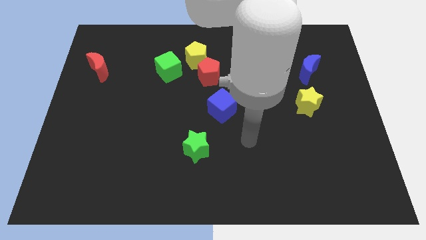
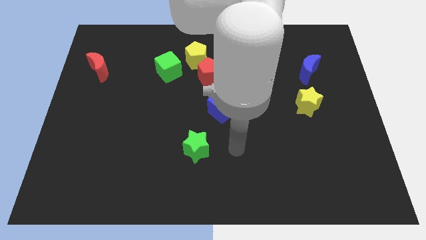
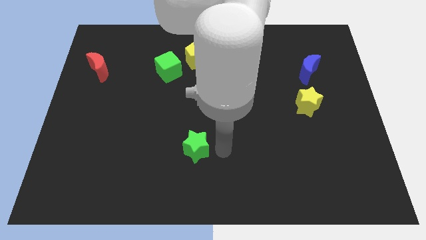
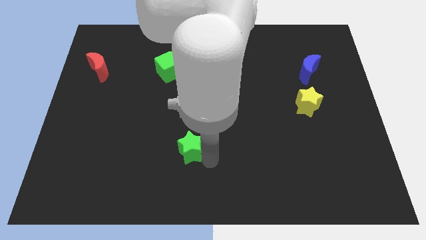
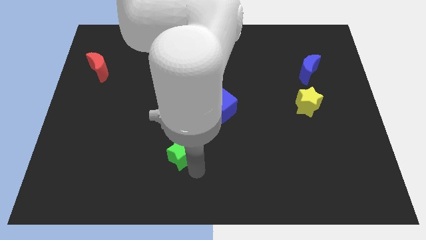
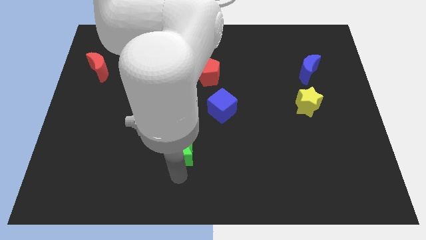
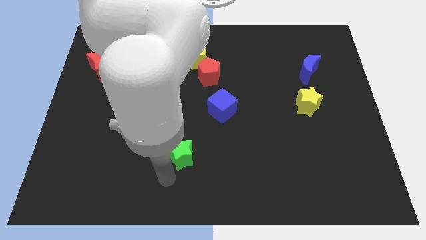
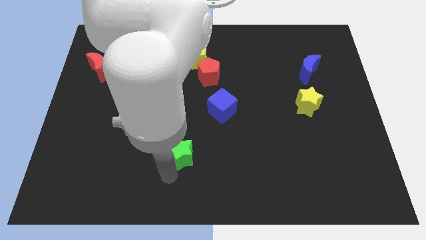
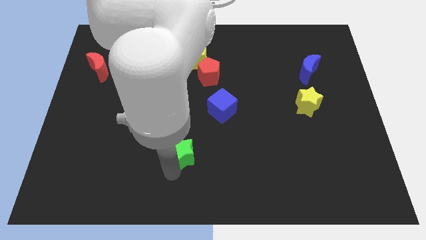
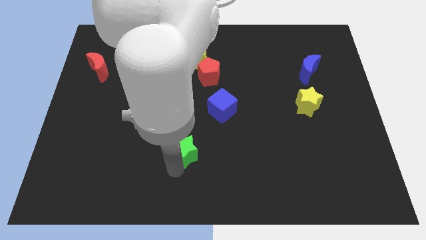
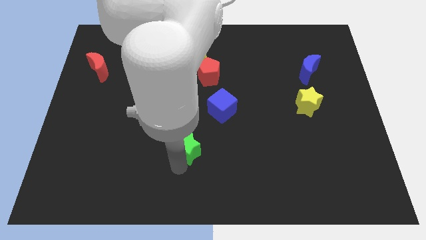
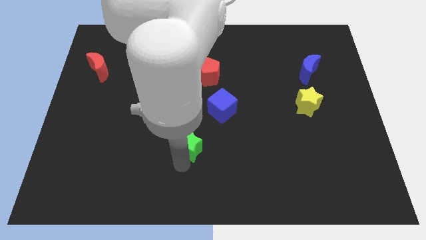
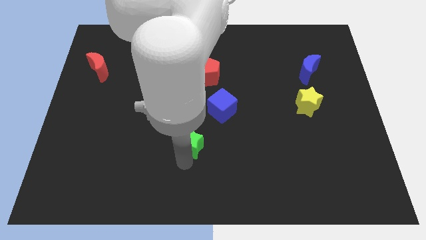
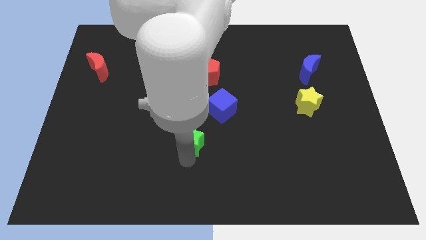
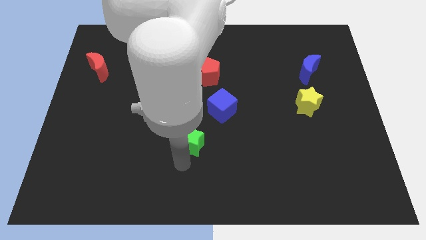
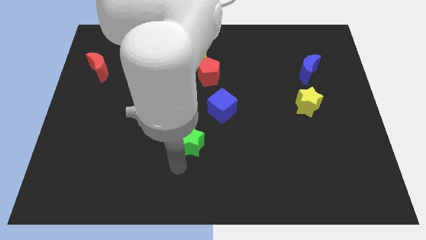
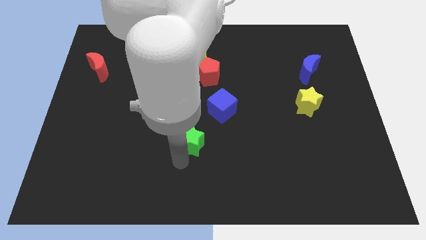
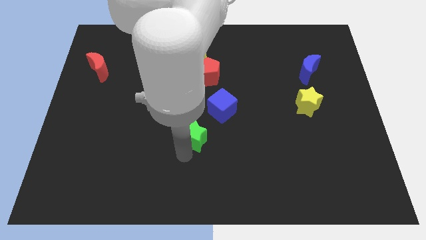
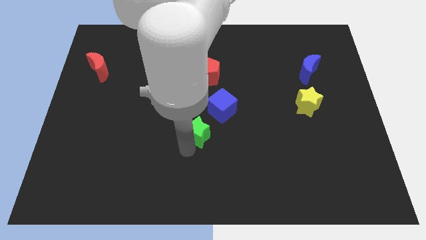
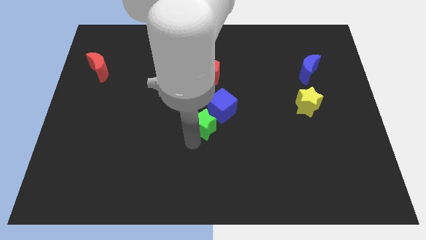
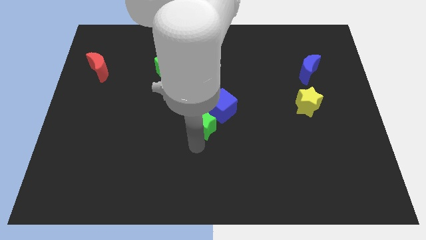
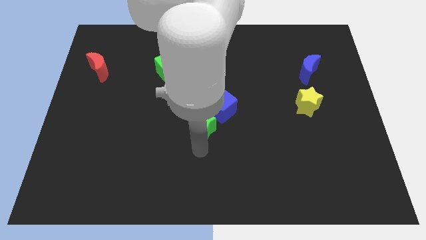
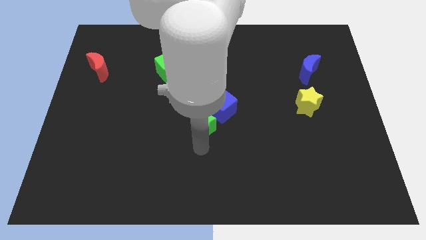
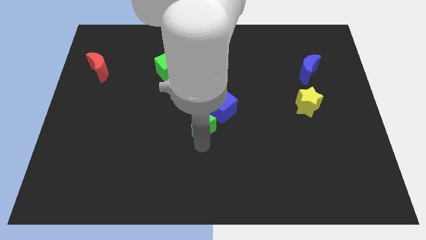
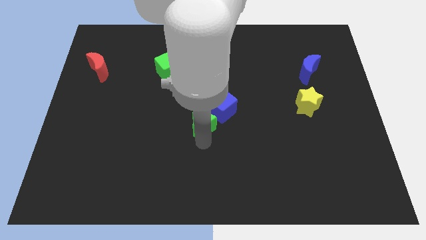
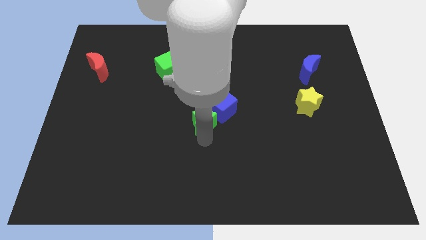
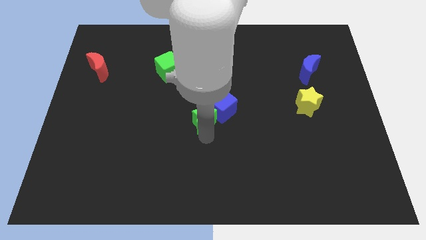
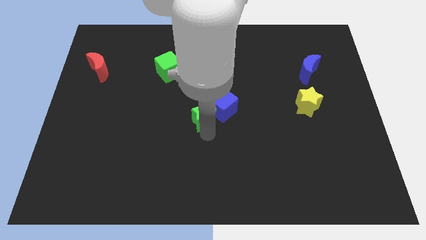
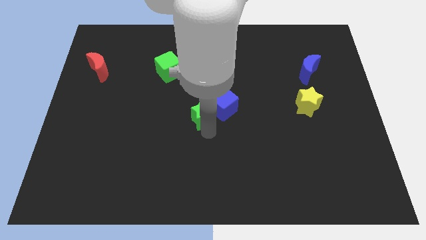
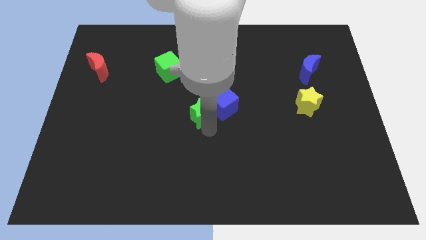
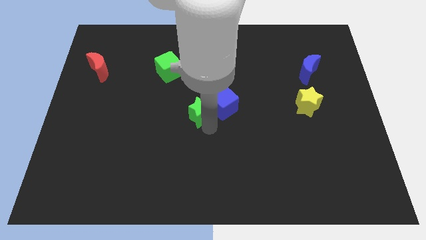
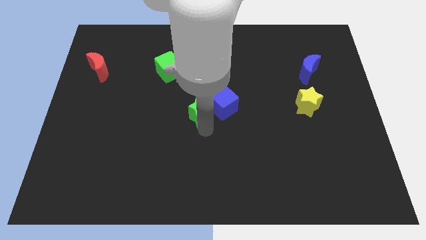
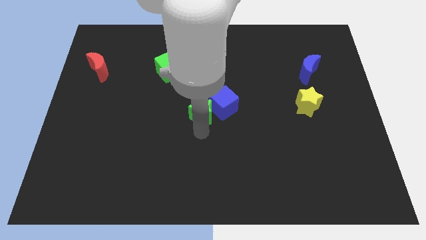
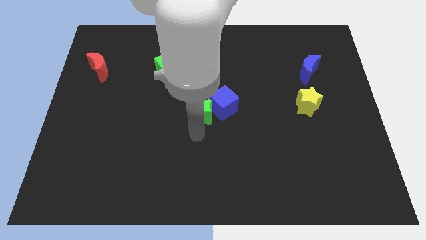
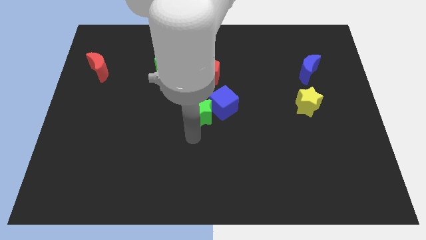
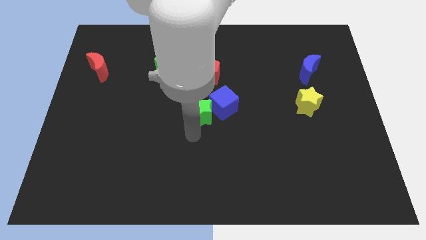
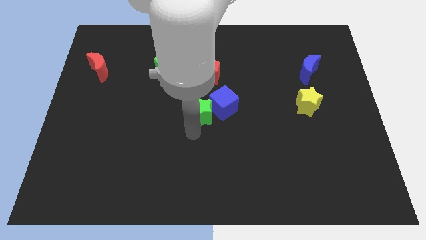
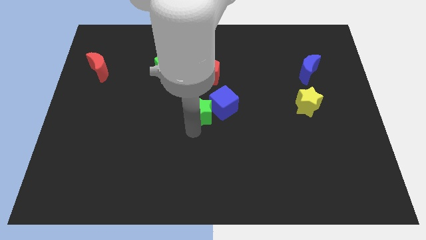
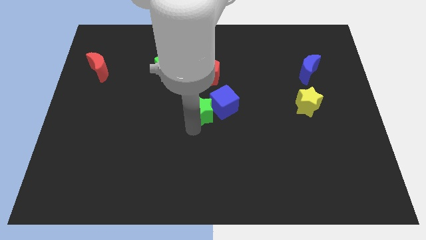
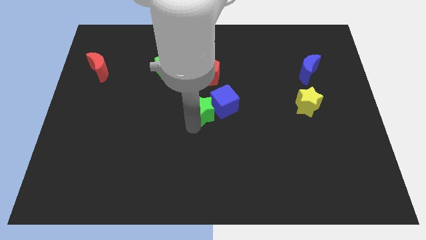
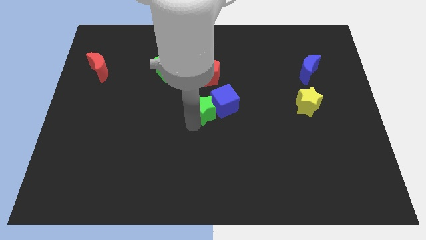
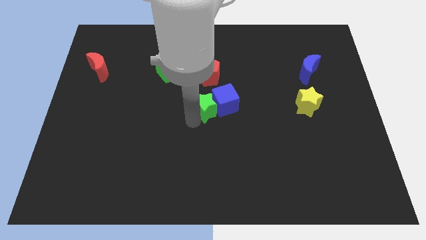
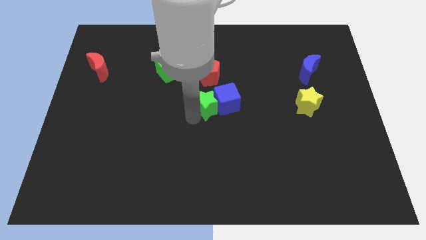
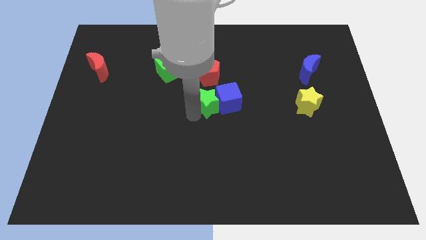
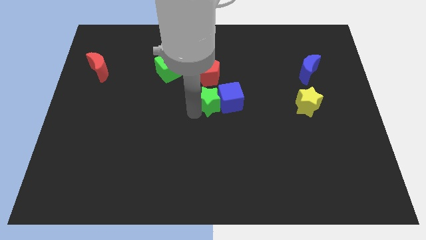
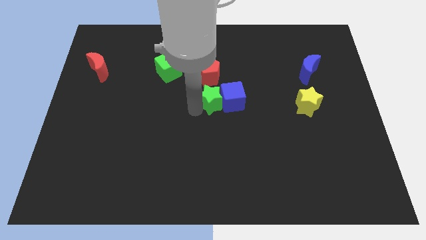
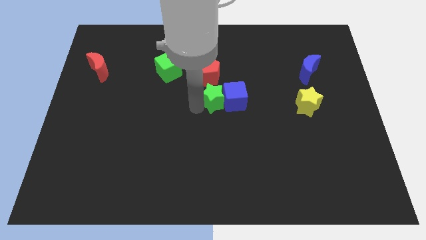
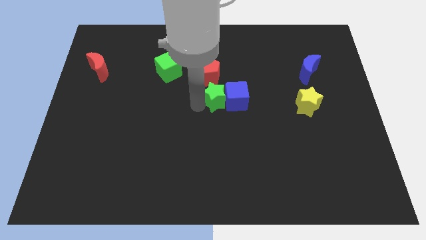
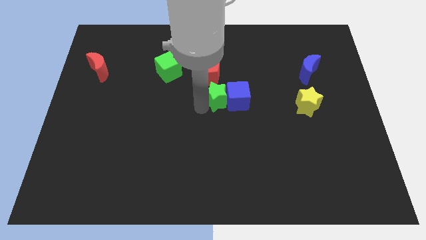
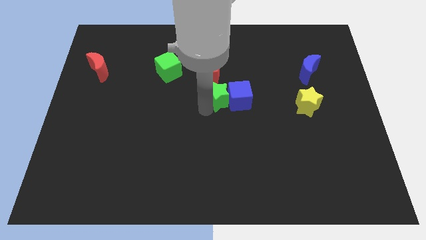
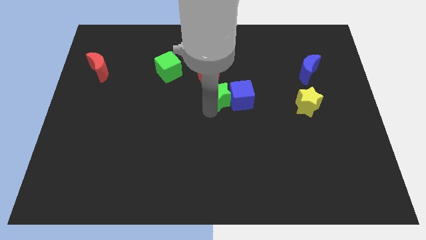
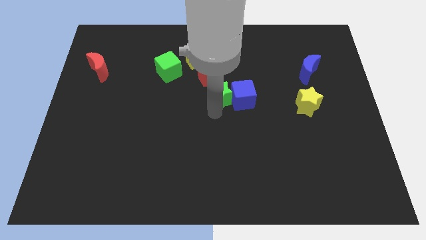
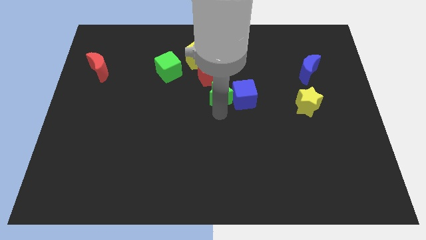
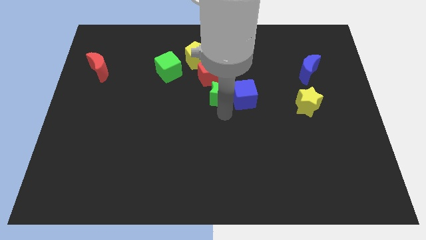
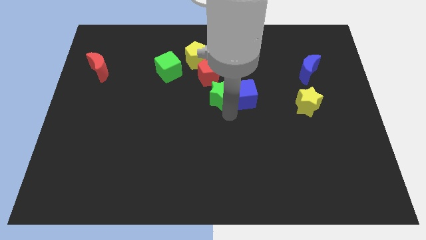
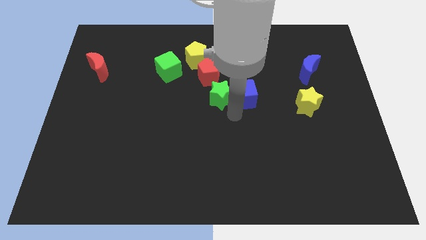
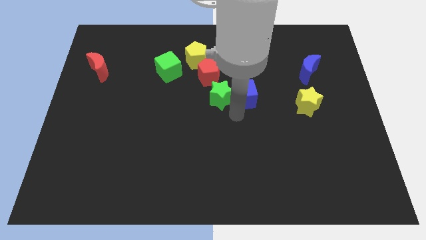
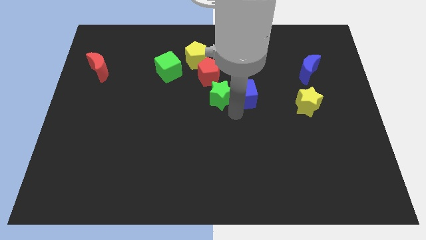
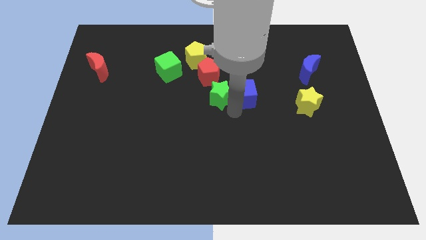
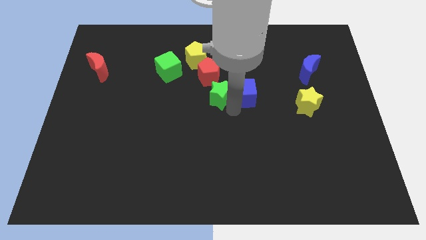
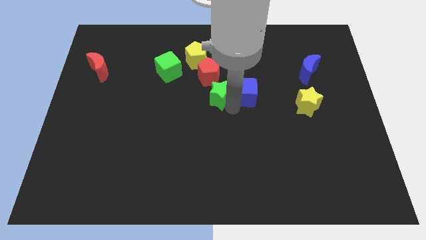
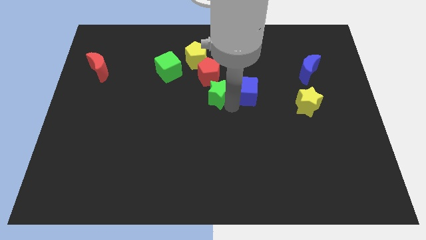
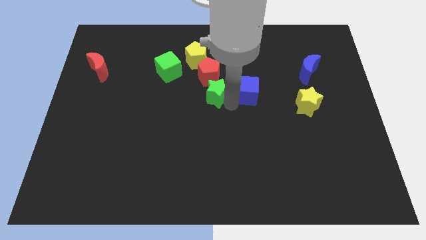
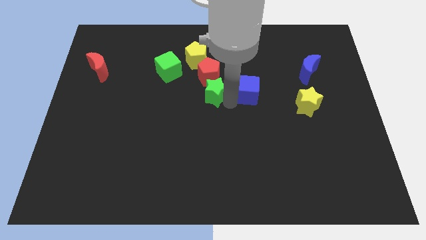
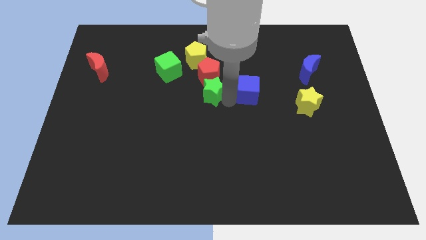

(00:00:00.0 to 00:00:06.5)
move the green star towards the red pentagon

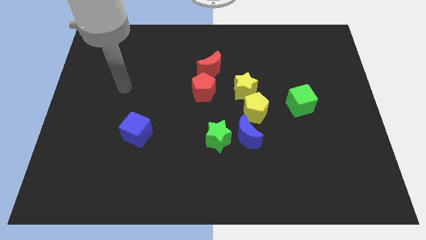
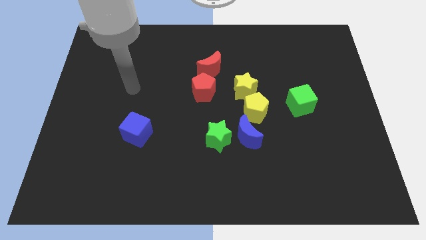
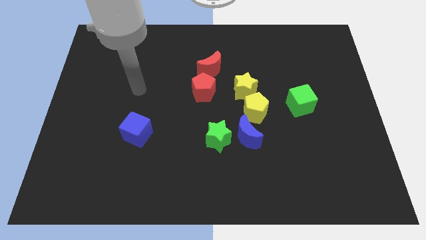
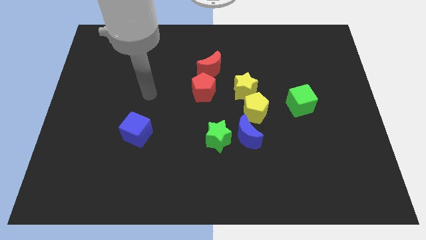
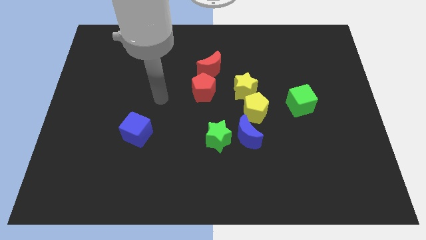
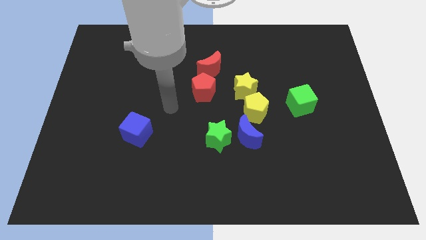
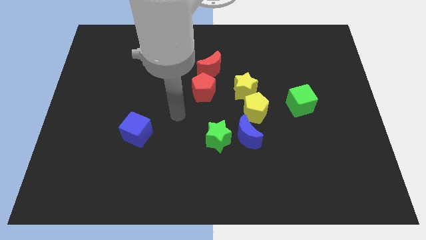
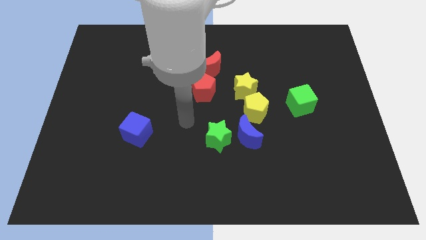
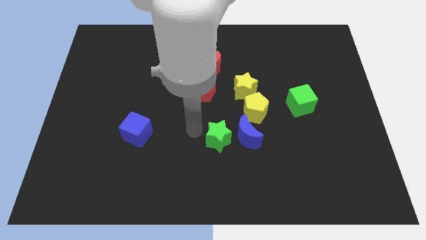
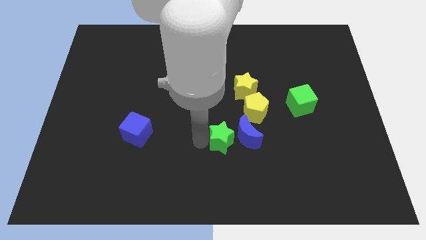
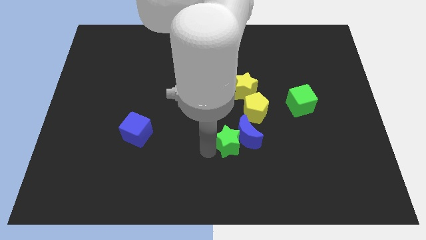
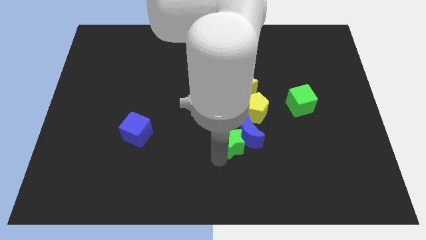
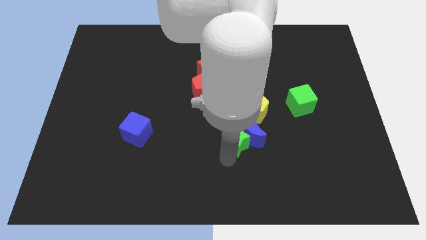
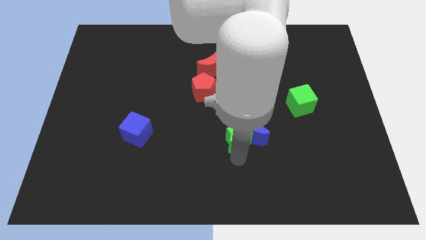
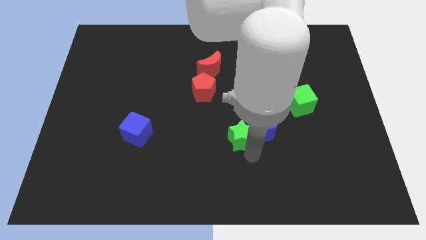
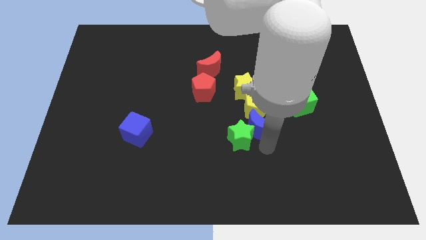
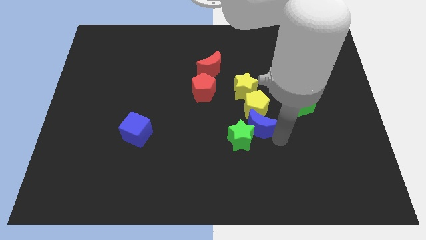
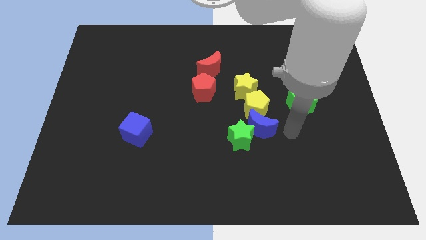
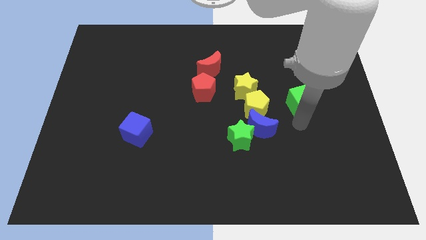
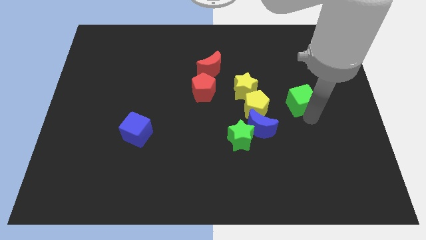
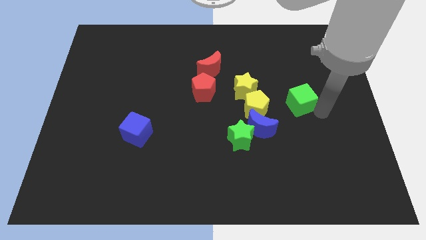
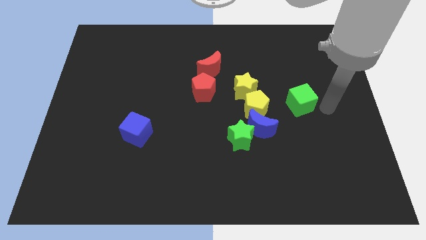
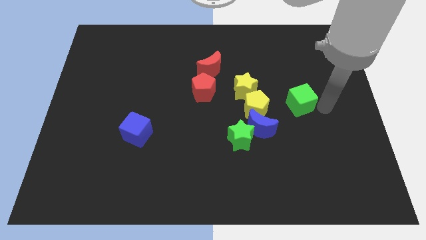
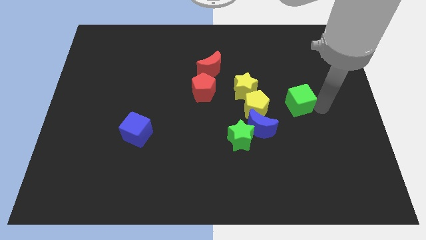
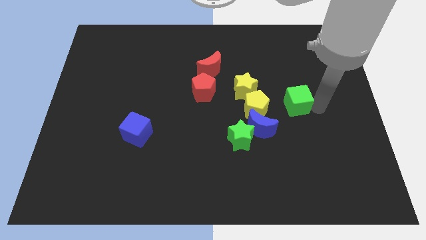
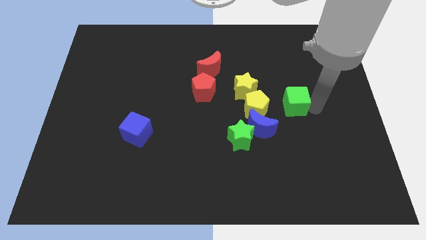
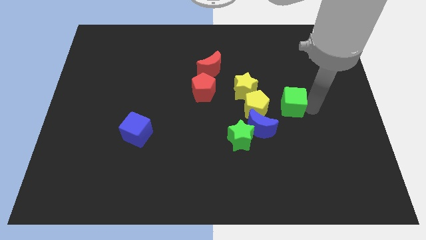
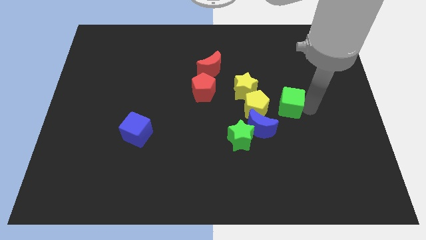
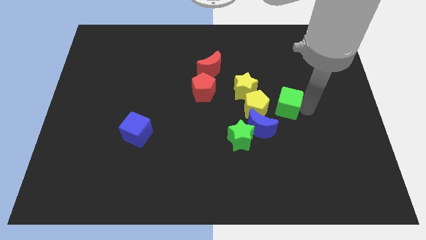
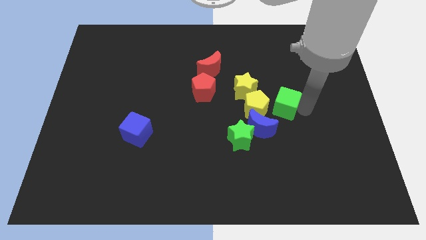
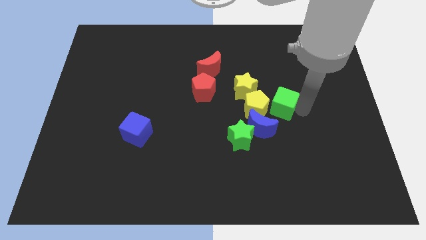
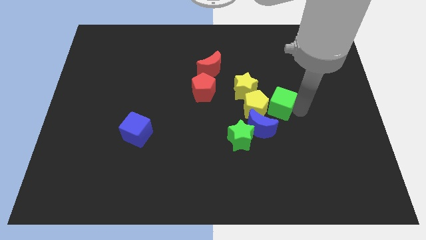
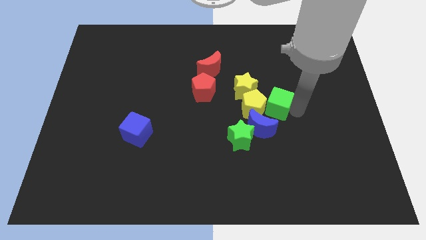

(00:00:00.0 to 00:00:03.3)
push the green cube next to the yellow pentagon
